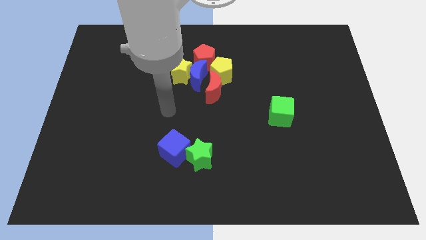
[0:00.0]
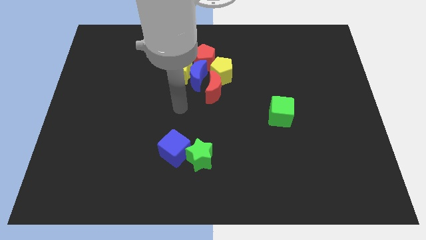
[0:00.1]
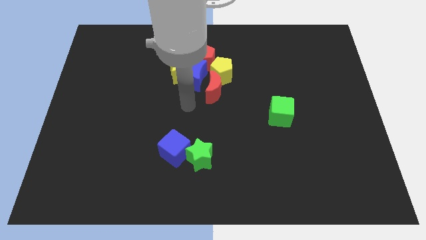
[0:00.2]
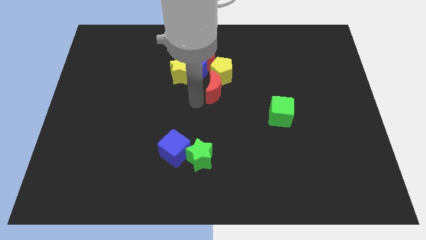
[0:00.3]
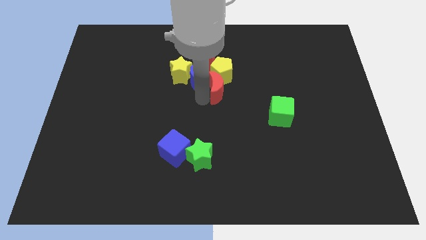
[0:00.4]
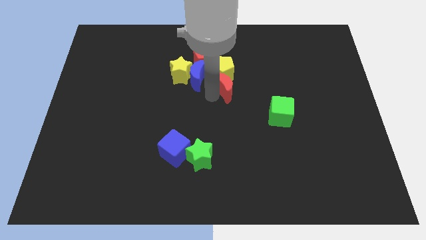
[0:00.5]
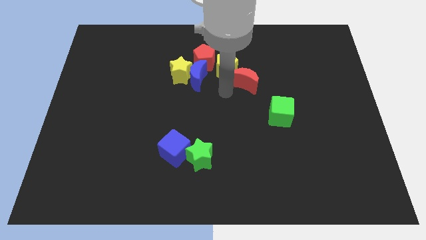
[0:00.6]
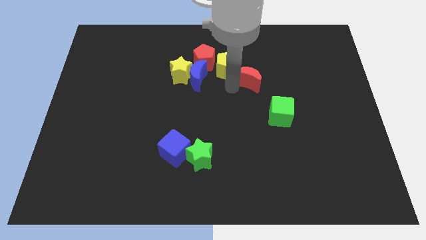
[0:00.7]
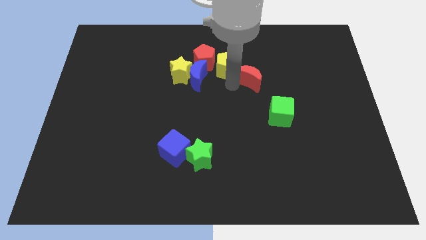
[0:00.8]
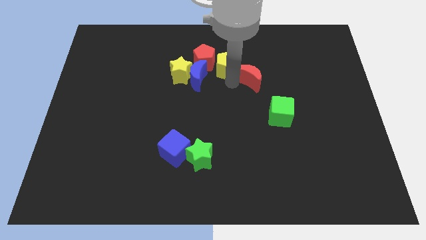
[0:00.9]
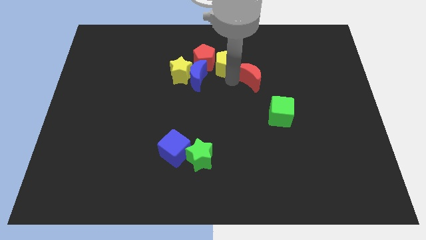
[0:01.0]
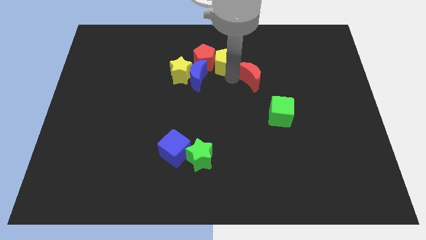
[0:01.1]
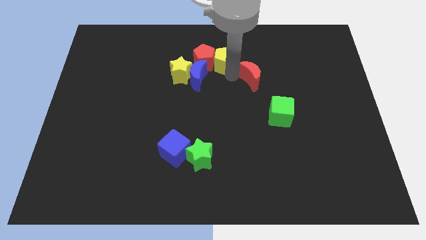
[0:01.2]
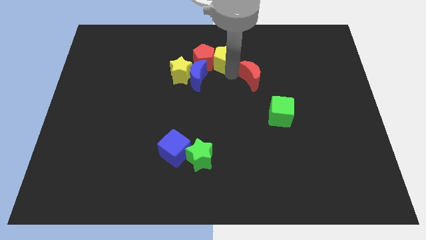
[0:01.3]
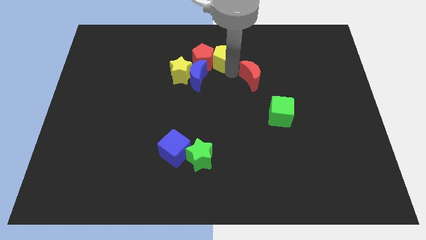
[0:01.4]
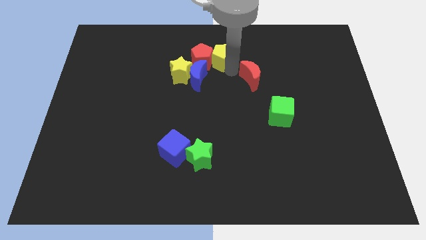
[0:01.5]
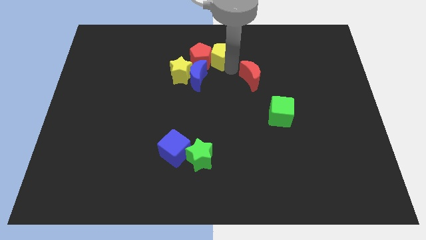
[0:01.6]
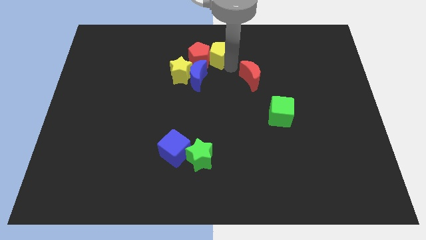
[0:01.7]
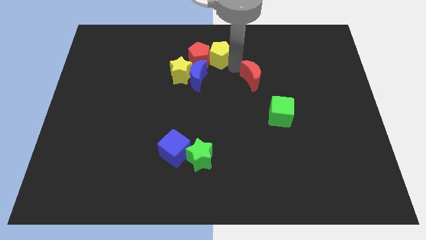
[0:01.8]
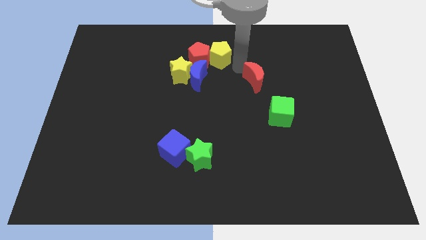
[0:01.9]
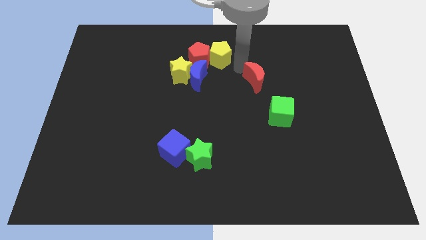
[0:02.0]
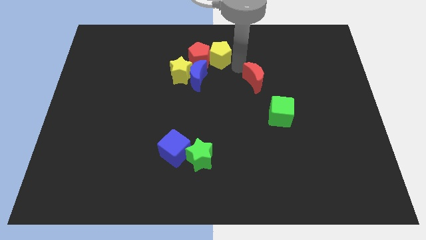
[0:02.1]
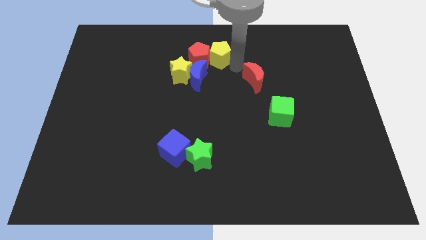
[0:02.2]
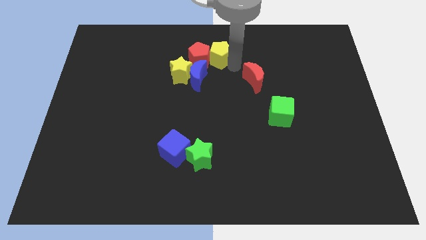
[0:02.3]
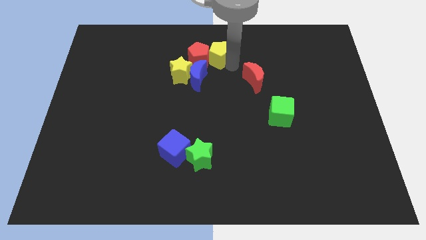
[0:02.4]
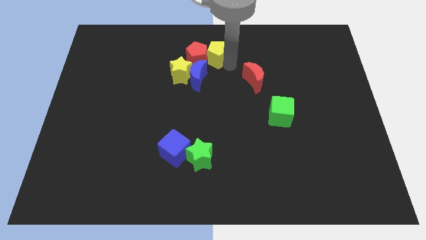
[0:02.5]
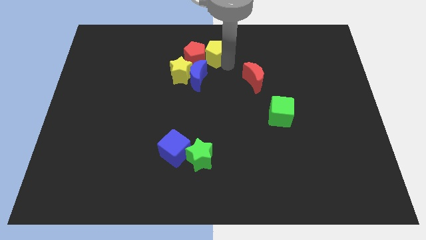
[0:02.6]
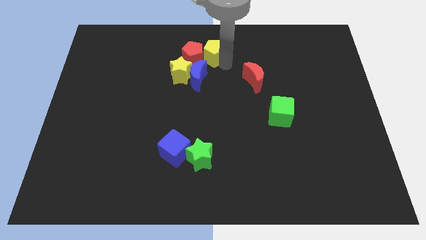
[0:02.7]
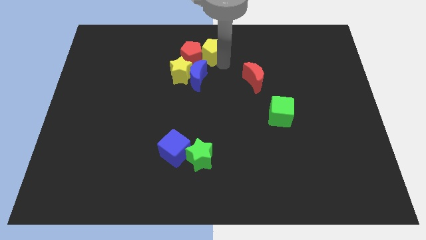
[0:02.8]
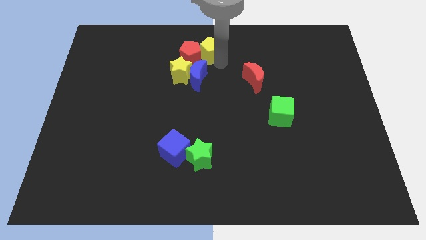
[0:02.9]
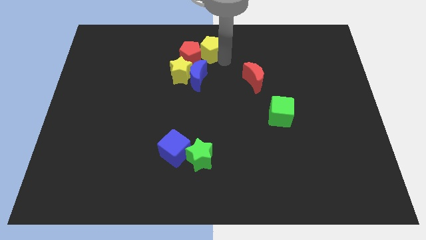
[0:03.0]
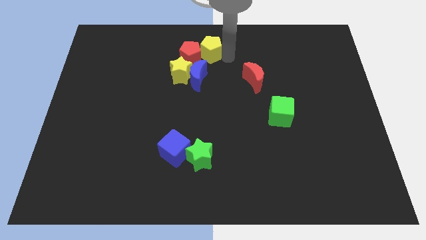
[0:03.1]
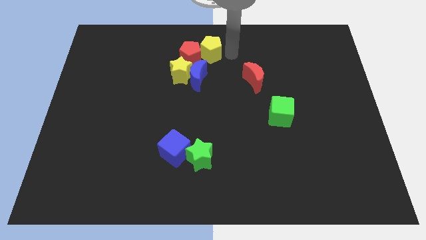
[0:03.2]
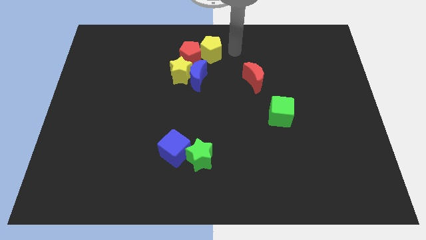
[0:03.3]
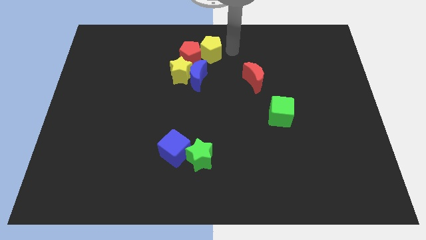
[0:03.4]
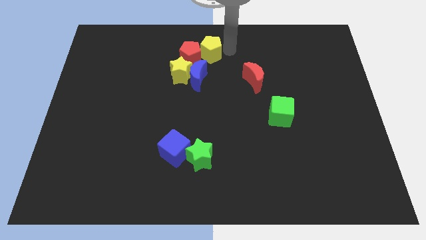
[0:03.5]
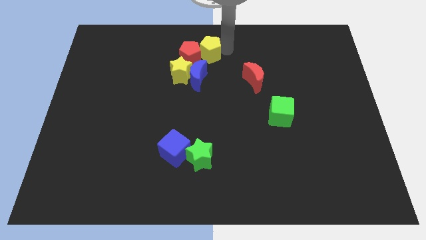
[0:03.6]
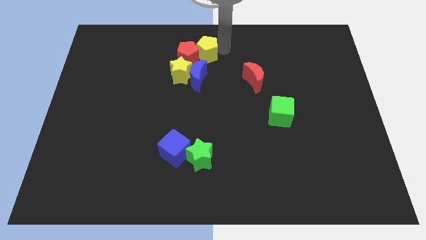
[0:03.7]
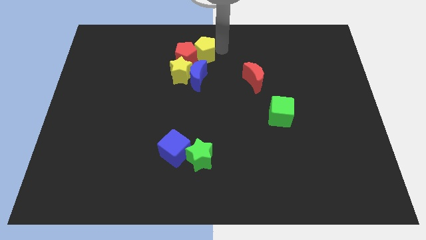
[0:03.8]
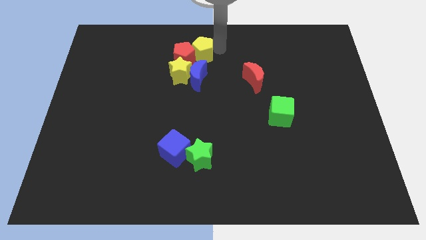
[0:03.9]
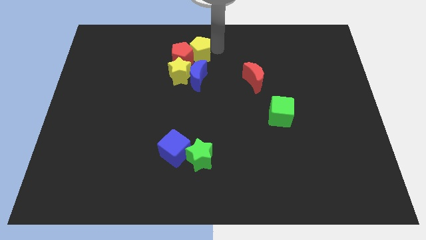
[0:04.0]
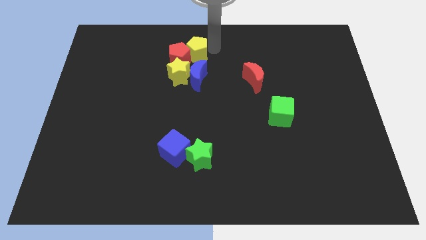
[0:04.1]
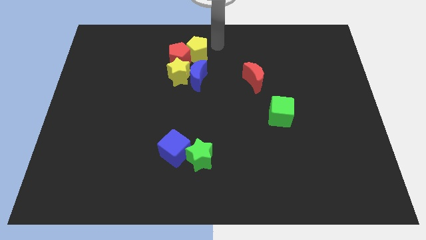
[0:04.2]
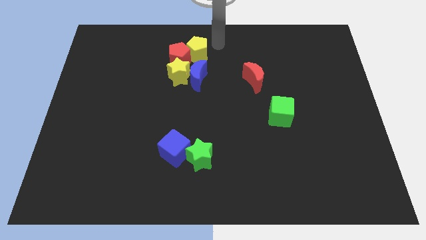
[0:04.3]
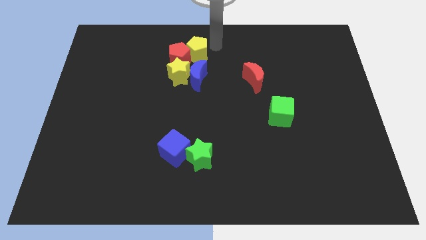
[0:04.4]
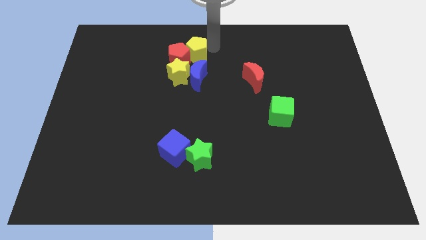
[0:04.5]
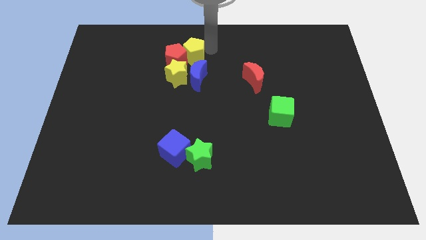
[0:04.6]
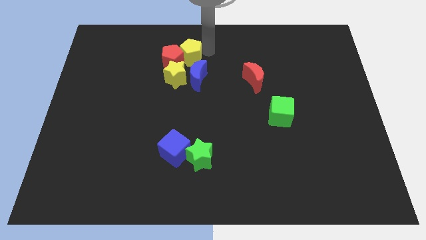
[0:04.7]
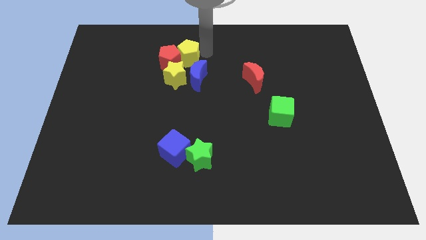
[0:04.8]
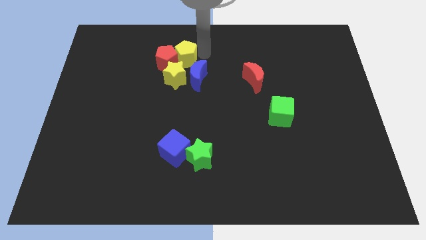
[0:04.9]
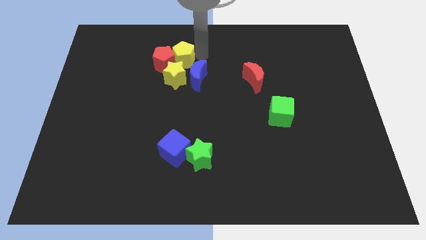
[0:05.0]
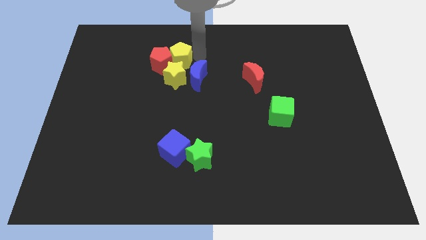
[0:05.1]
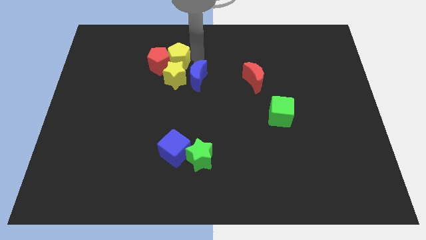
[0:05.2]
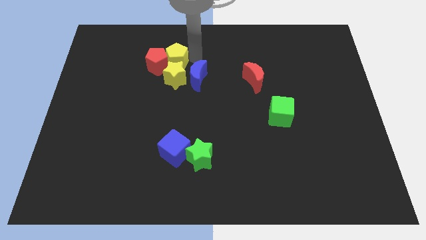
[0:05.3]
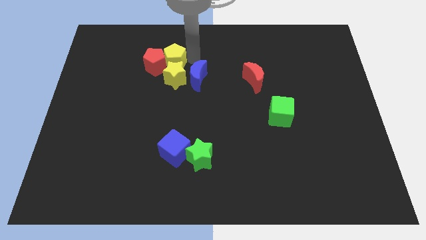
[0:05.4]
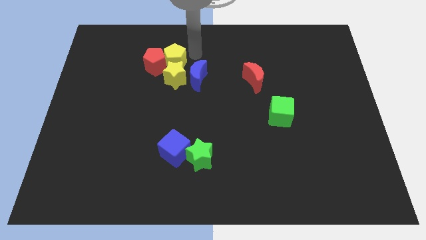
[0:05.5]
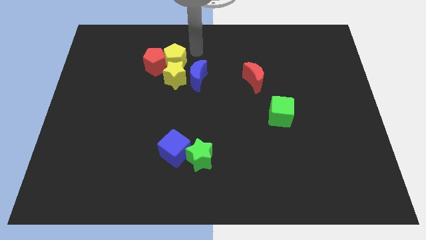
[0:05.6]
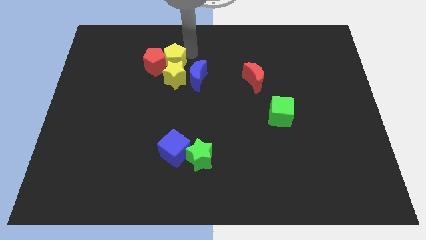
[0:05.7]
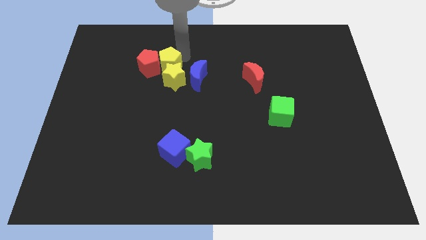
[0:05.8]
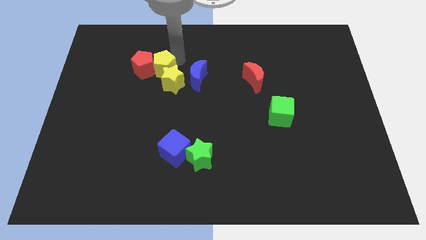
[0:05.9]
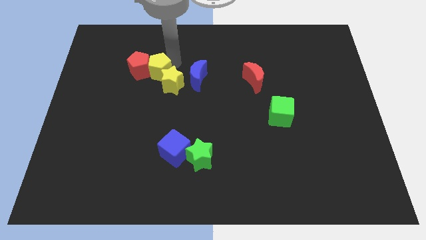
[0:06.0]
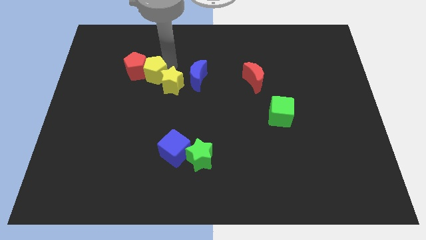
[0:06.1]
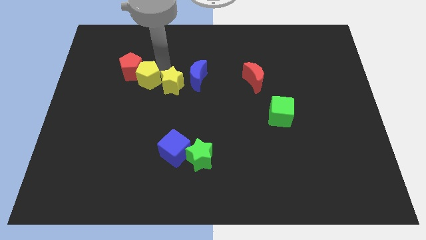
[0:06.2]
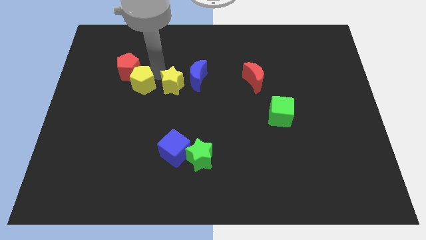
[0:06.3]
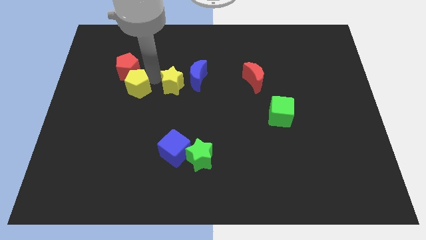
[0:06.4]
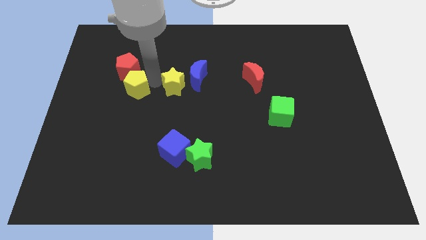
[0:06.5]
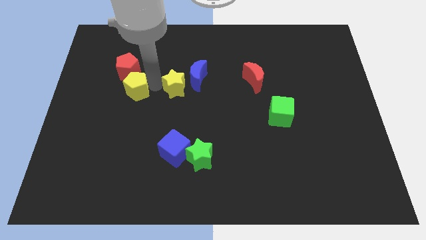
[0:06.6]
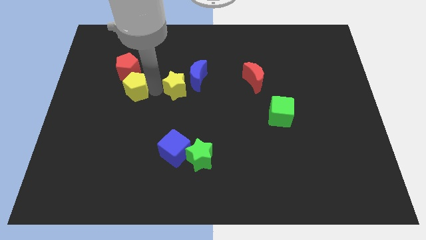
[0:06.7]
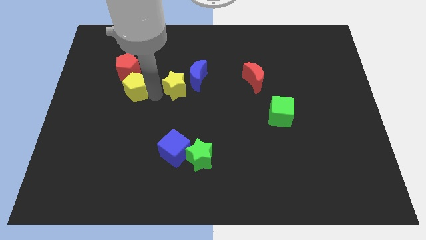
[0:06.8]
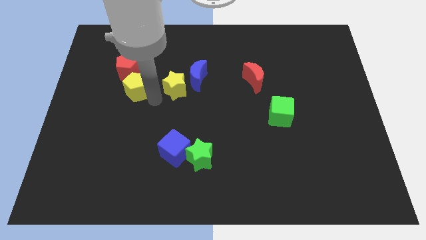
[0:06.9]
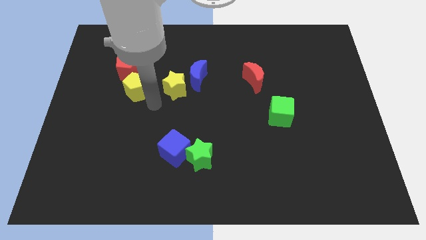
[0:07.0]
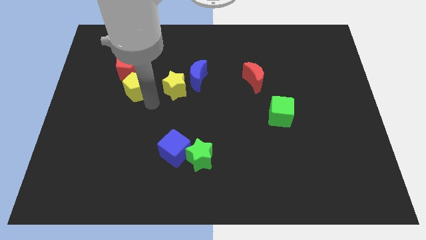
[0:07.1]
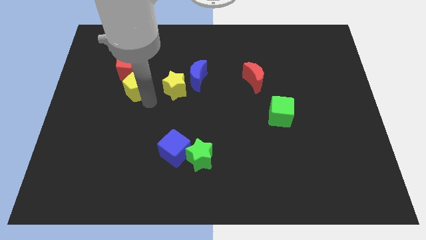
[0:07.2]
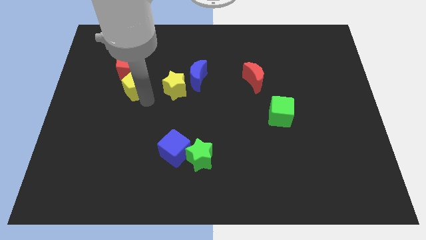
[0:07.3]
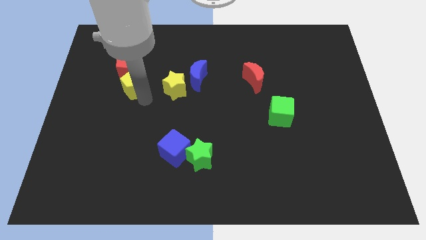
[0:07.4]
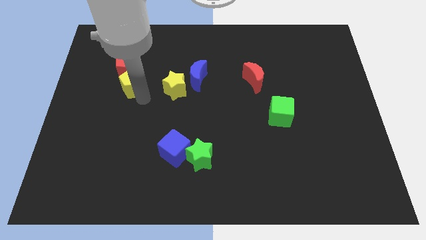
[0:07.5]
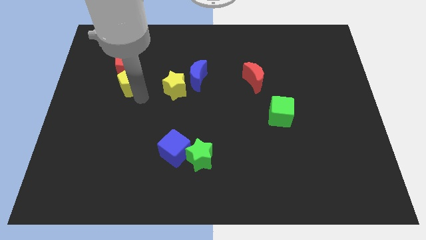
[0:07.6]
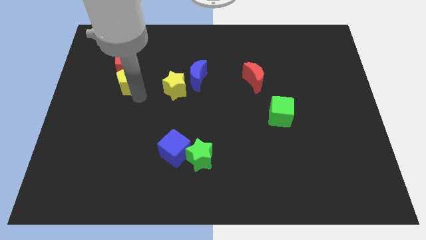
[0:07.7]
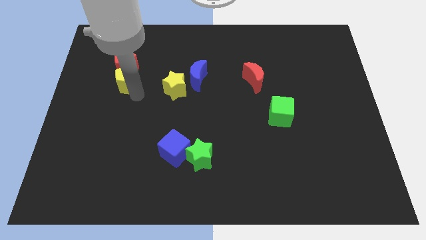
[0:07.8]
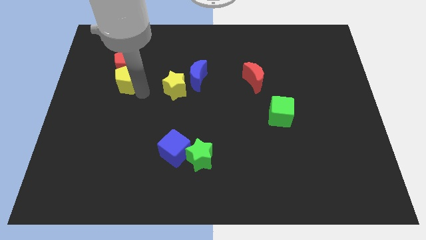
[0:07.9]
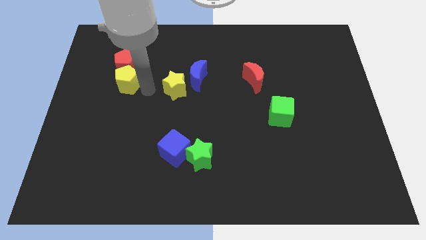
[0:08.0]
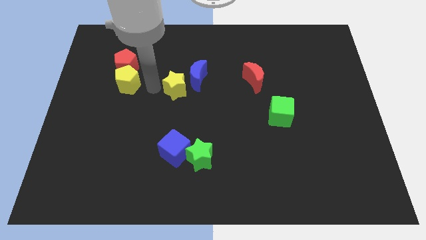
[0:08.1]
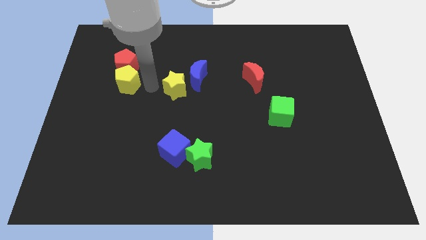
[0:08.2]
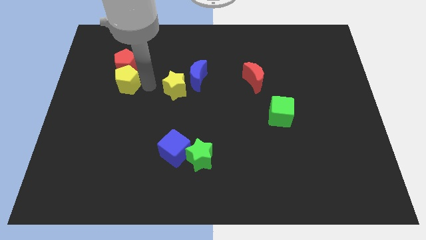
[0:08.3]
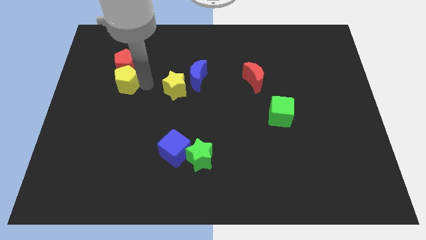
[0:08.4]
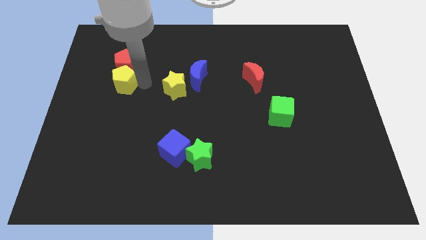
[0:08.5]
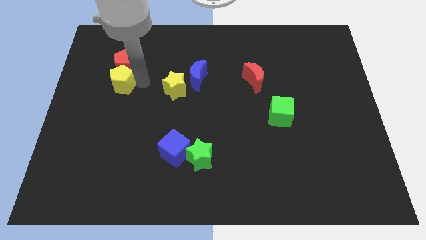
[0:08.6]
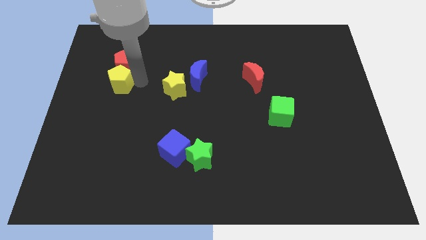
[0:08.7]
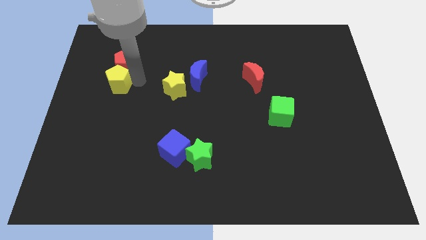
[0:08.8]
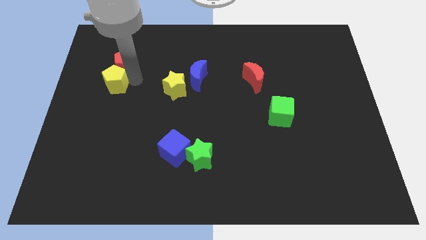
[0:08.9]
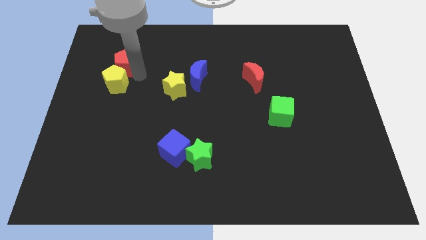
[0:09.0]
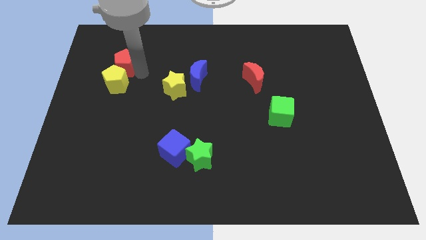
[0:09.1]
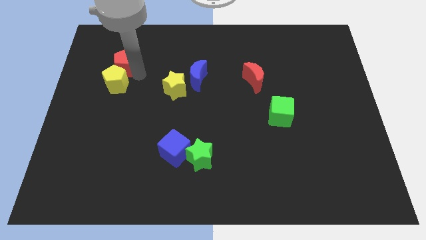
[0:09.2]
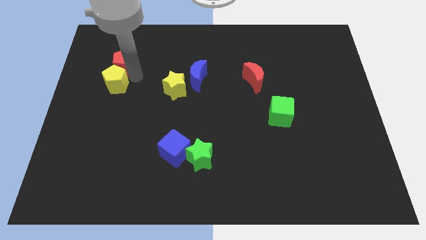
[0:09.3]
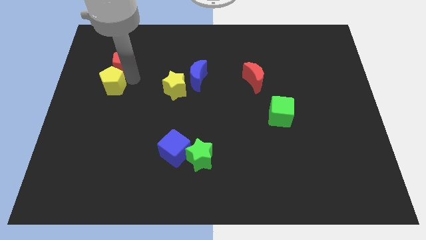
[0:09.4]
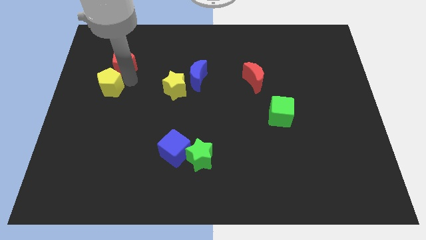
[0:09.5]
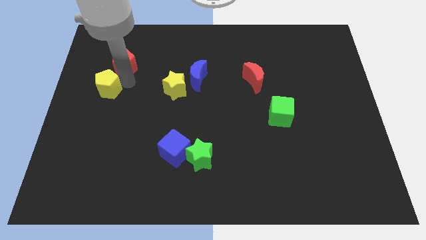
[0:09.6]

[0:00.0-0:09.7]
slide the yellow pentagon to the center left
